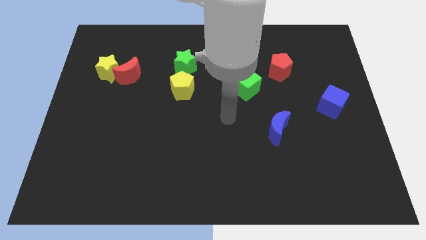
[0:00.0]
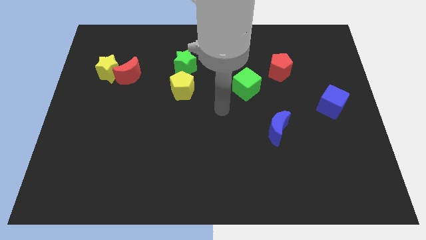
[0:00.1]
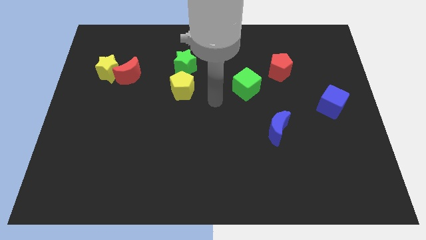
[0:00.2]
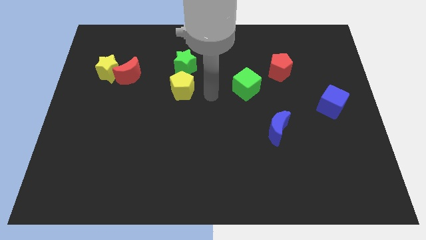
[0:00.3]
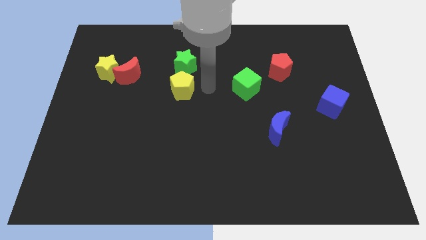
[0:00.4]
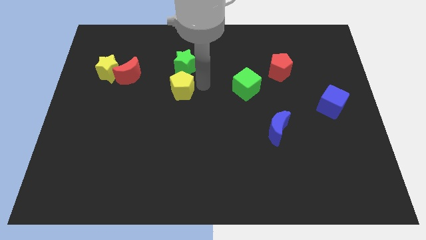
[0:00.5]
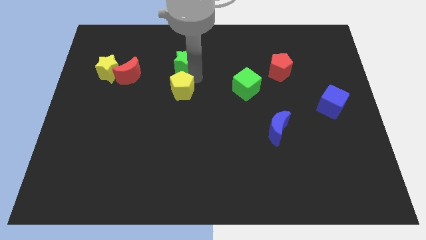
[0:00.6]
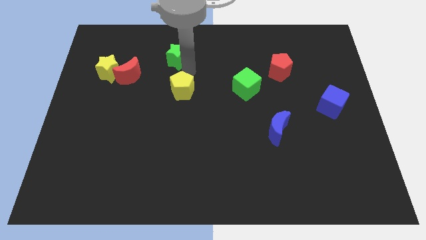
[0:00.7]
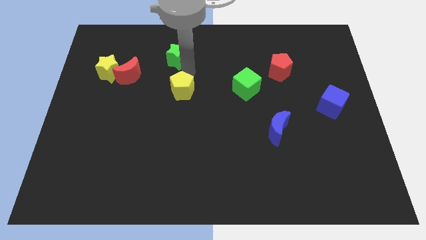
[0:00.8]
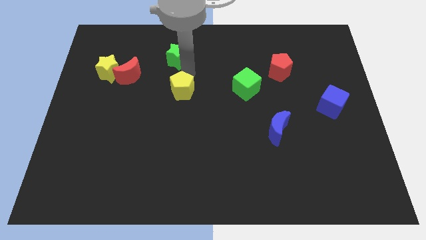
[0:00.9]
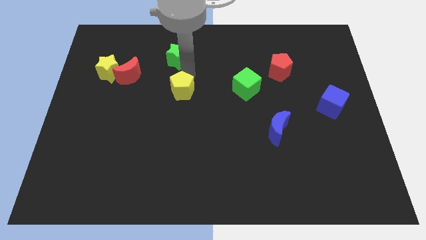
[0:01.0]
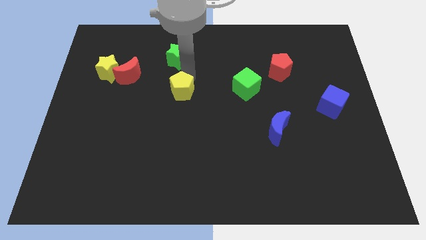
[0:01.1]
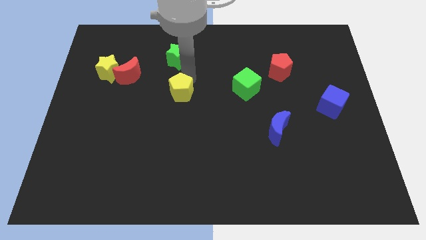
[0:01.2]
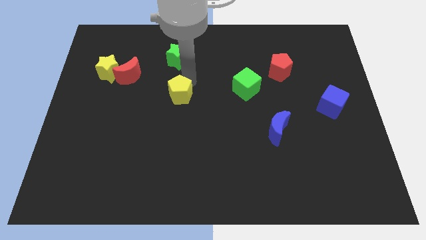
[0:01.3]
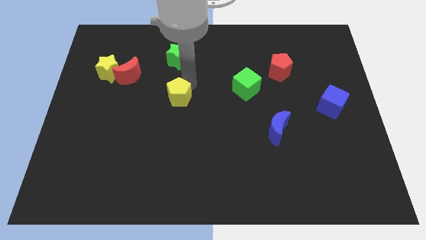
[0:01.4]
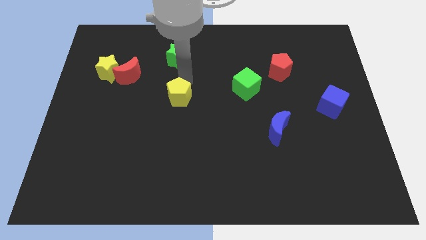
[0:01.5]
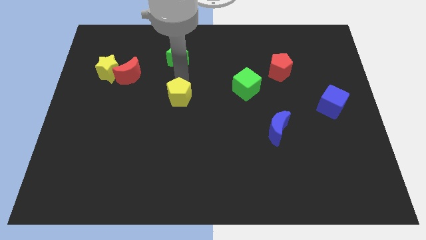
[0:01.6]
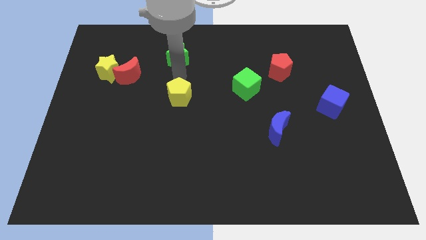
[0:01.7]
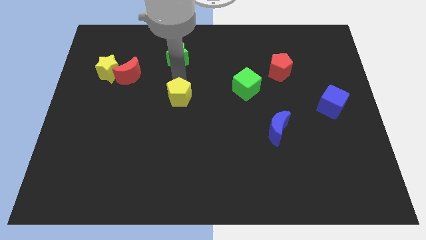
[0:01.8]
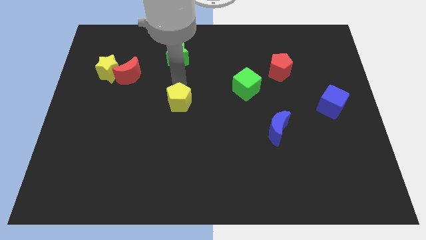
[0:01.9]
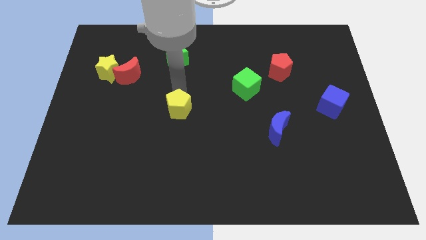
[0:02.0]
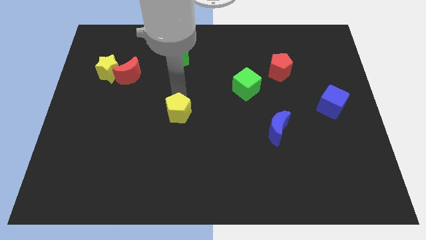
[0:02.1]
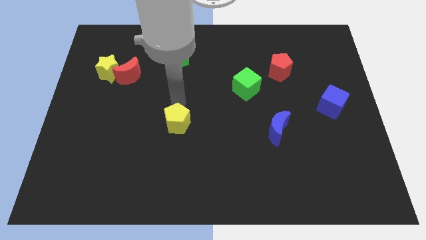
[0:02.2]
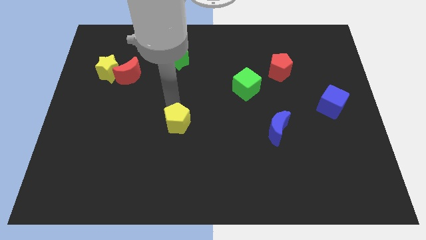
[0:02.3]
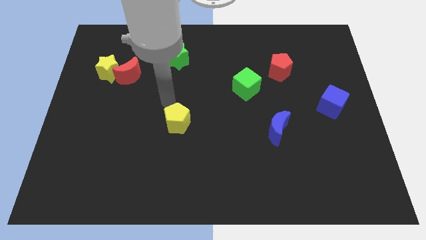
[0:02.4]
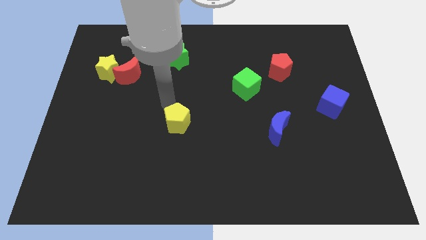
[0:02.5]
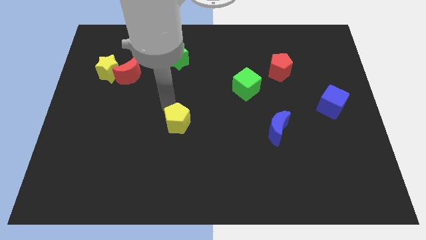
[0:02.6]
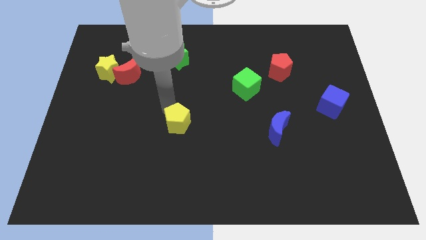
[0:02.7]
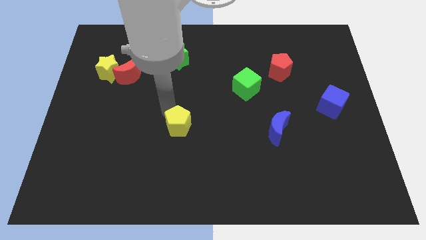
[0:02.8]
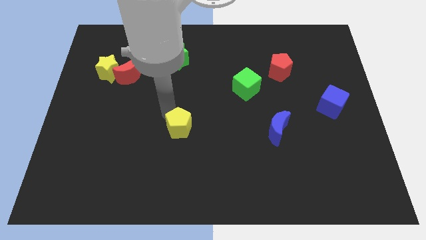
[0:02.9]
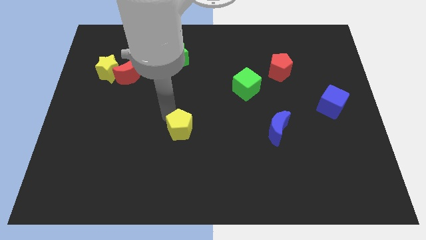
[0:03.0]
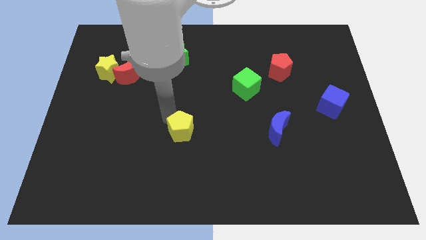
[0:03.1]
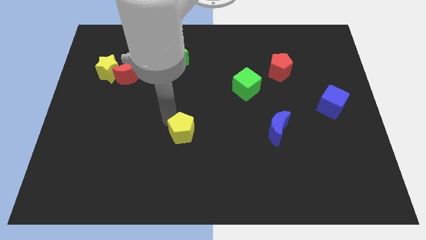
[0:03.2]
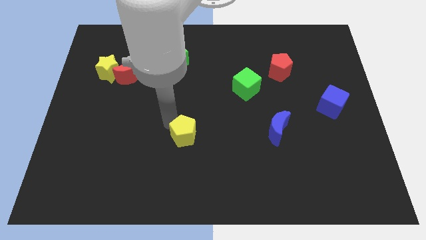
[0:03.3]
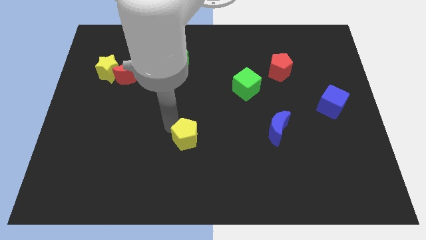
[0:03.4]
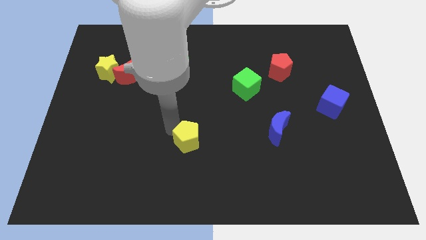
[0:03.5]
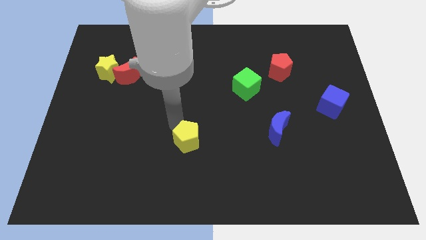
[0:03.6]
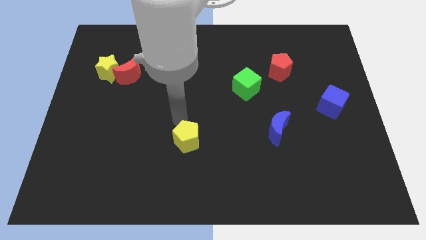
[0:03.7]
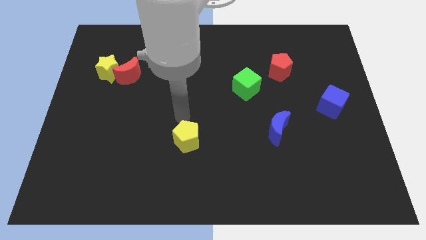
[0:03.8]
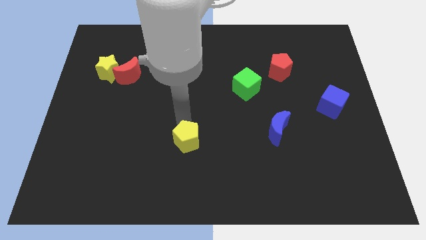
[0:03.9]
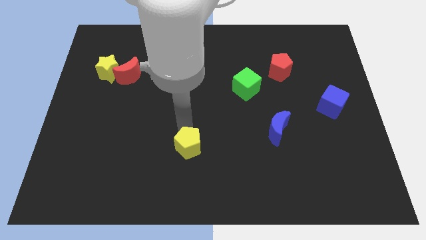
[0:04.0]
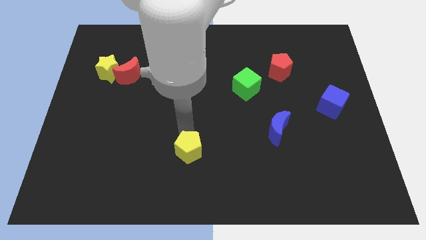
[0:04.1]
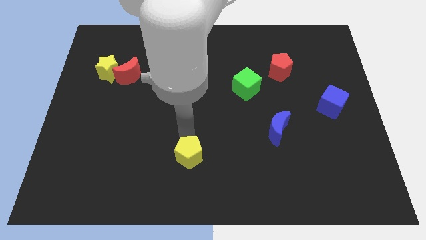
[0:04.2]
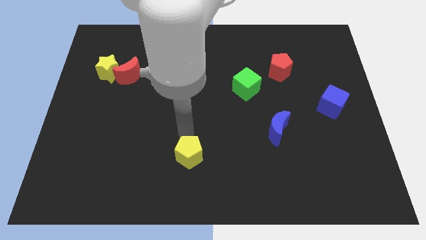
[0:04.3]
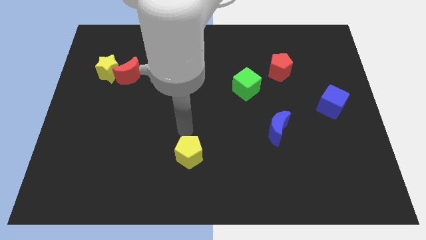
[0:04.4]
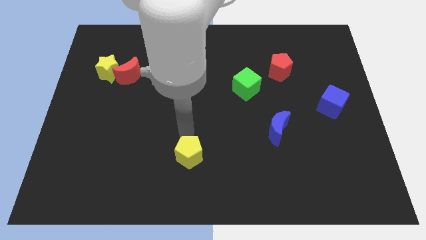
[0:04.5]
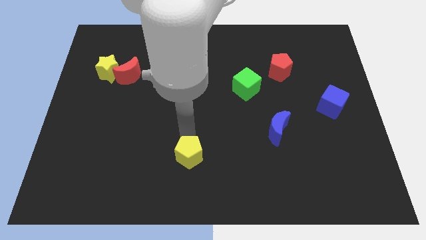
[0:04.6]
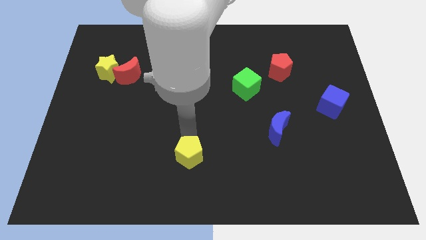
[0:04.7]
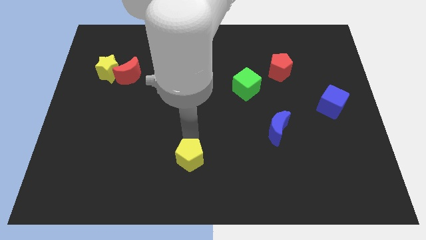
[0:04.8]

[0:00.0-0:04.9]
slide the yellow pentagon to the bottom

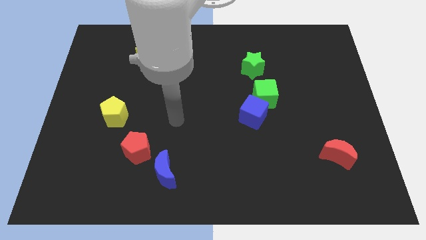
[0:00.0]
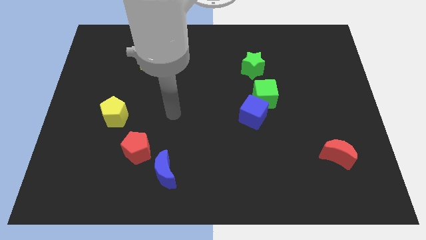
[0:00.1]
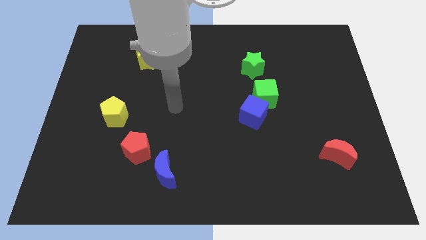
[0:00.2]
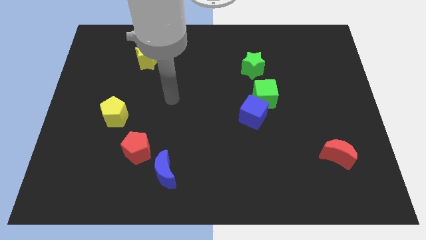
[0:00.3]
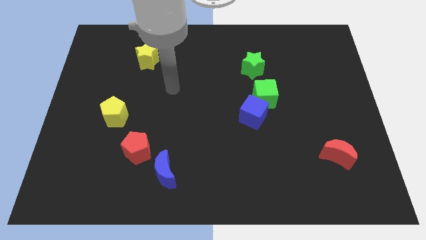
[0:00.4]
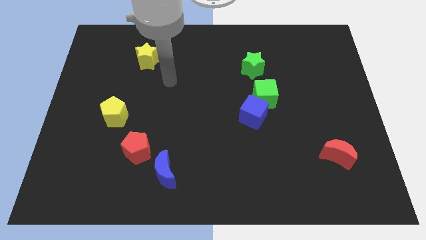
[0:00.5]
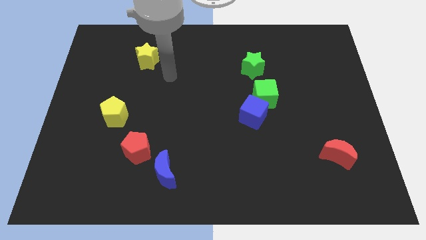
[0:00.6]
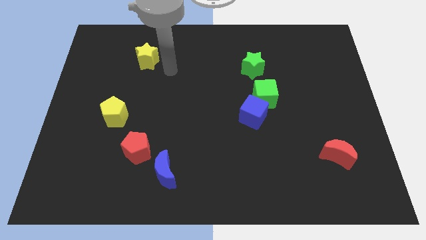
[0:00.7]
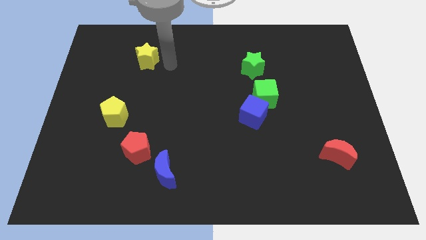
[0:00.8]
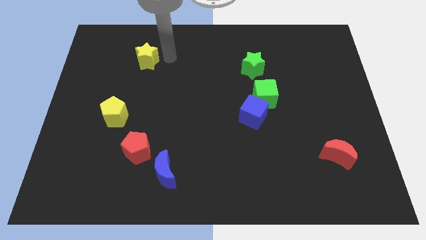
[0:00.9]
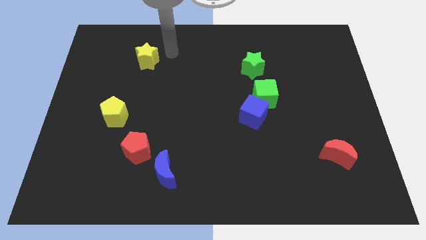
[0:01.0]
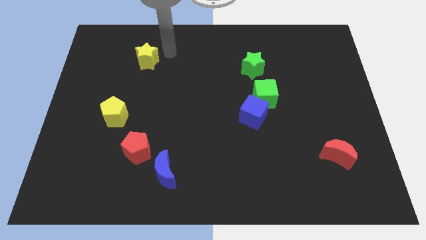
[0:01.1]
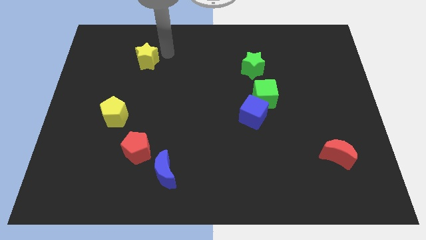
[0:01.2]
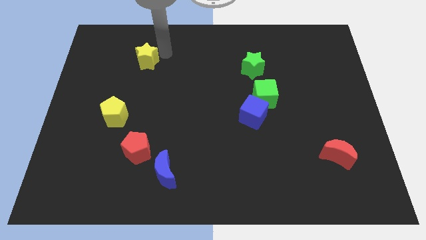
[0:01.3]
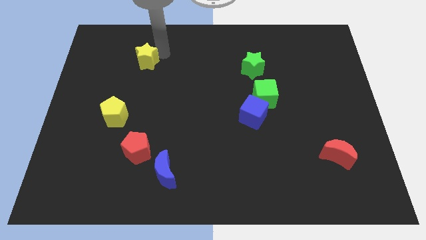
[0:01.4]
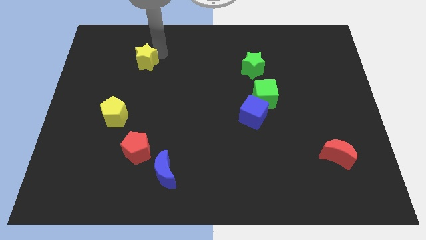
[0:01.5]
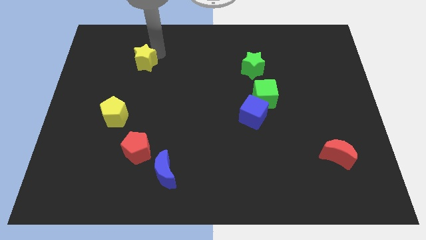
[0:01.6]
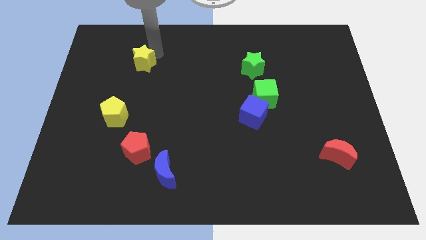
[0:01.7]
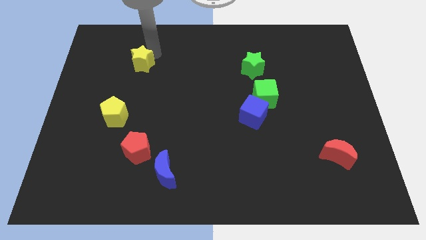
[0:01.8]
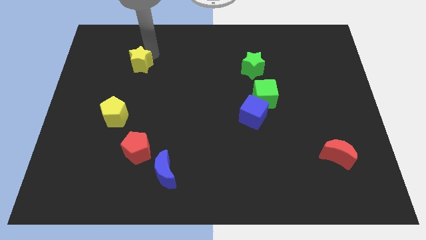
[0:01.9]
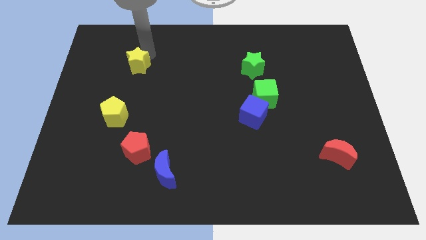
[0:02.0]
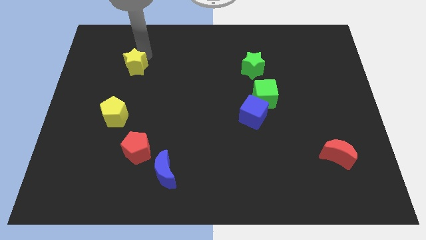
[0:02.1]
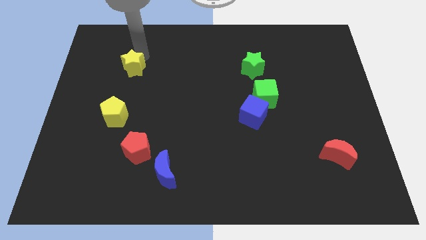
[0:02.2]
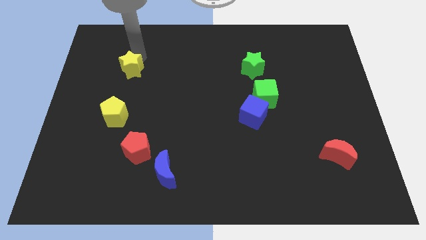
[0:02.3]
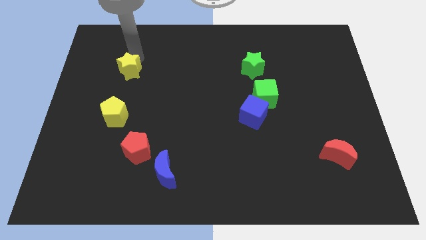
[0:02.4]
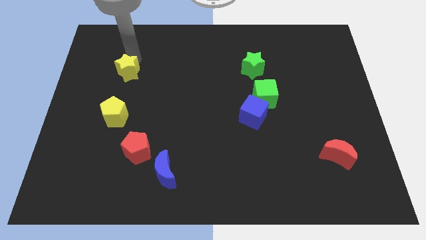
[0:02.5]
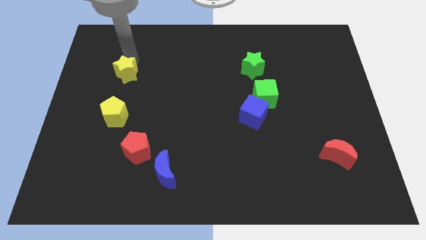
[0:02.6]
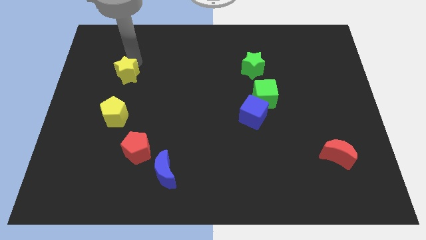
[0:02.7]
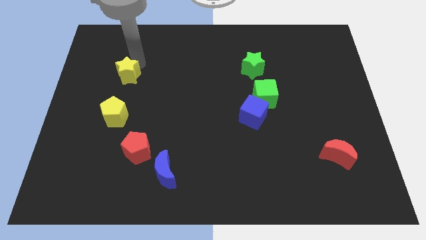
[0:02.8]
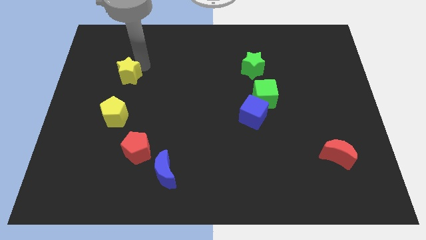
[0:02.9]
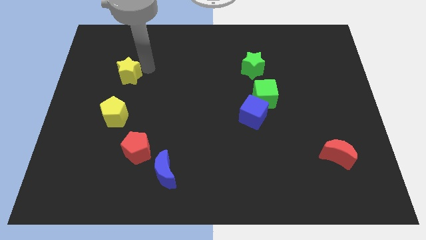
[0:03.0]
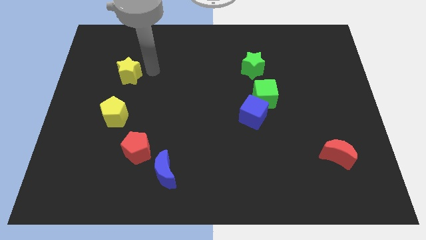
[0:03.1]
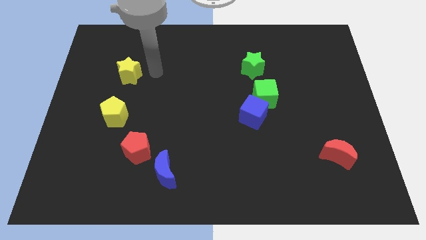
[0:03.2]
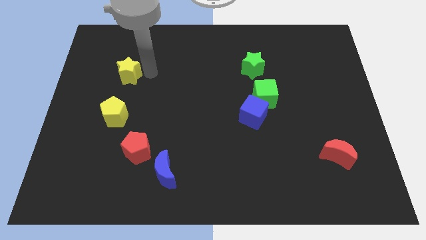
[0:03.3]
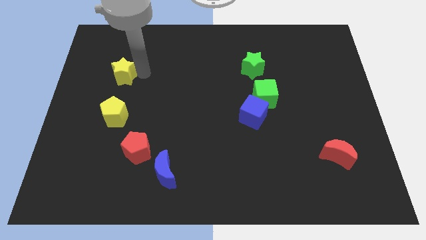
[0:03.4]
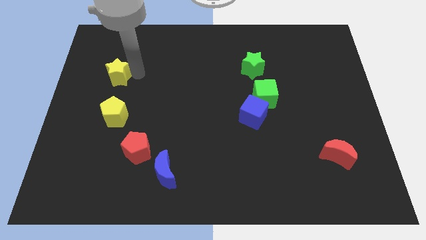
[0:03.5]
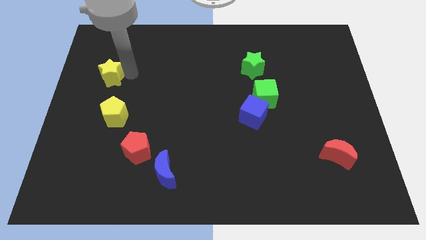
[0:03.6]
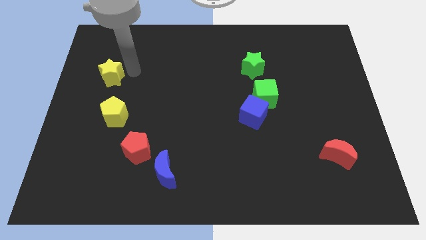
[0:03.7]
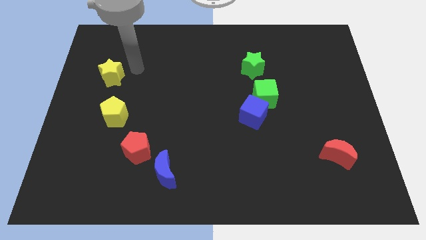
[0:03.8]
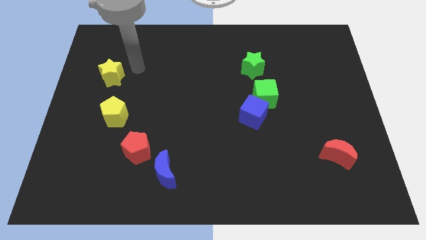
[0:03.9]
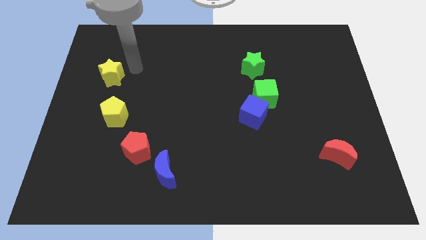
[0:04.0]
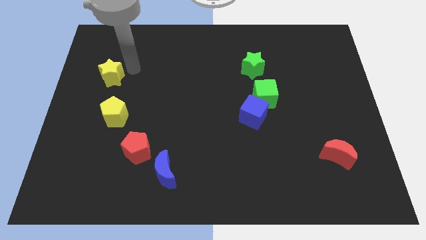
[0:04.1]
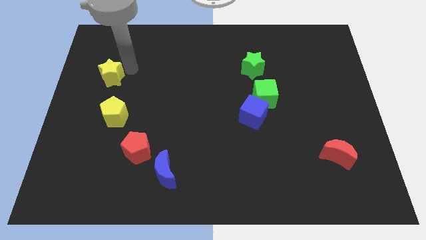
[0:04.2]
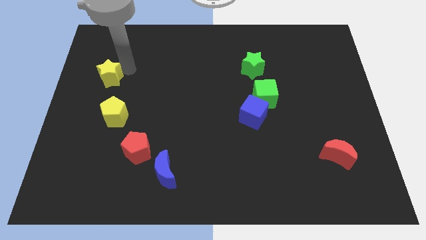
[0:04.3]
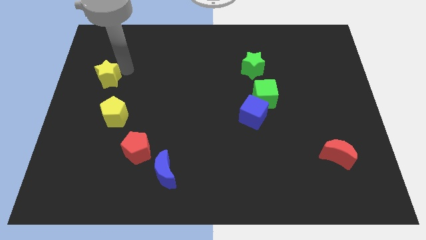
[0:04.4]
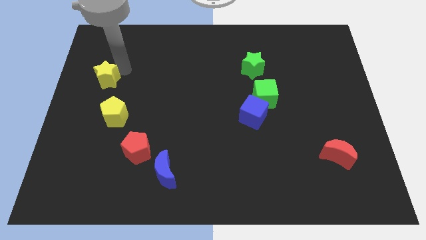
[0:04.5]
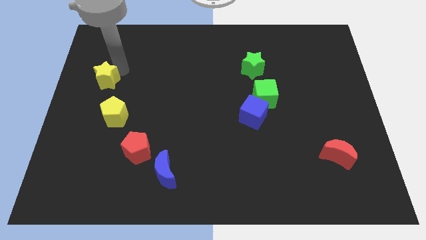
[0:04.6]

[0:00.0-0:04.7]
slide the yellow star to the left side of the board
